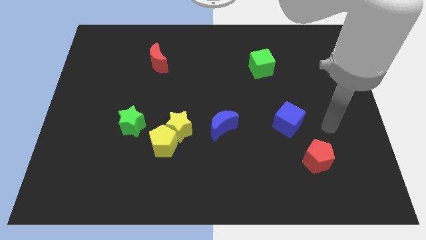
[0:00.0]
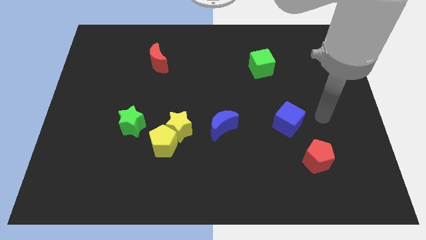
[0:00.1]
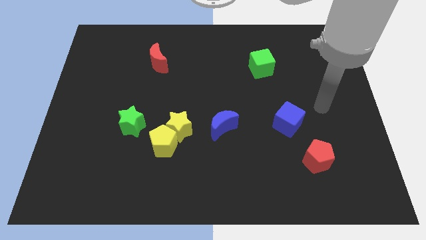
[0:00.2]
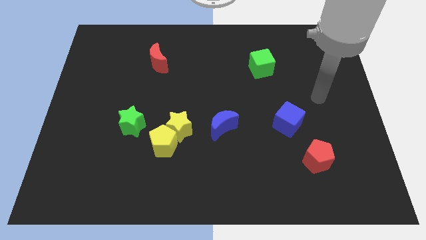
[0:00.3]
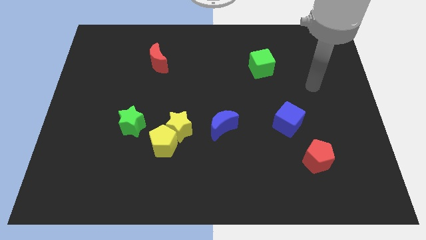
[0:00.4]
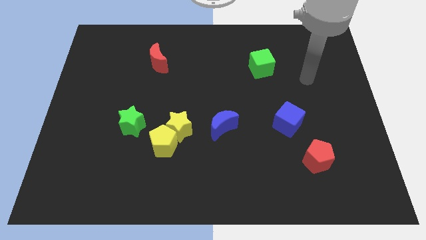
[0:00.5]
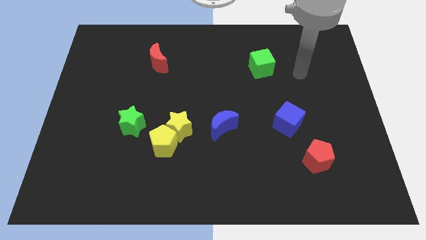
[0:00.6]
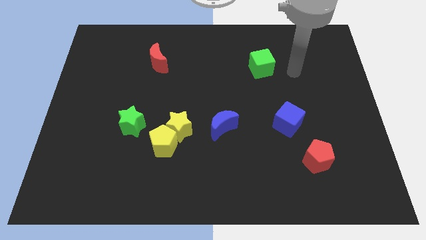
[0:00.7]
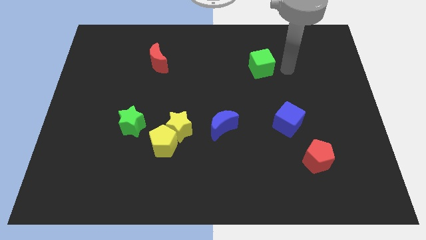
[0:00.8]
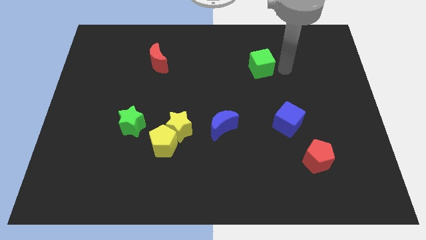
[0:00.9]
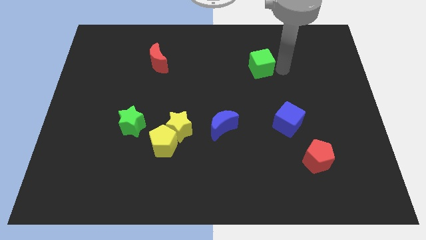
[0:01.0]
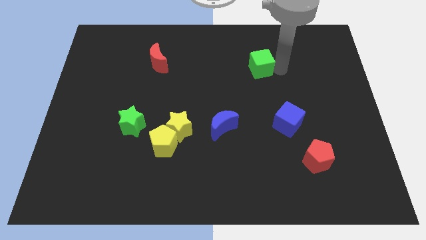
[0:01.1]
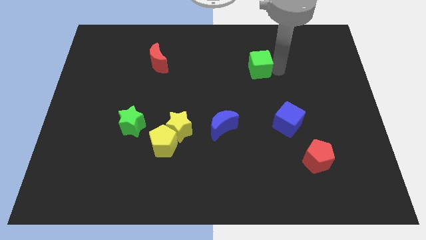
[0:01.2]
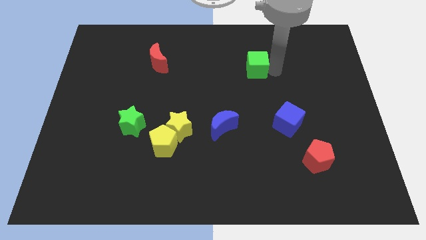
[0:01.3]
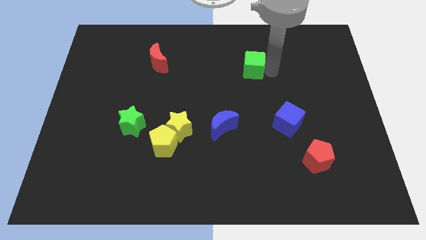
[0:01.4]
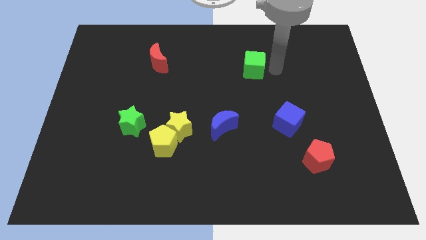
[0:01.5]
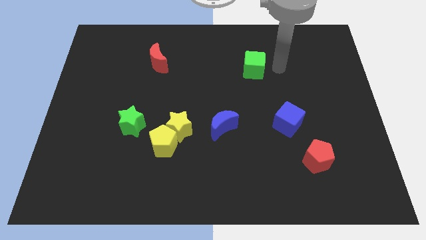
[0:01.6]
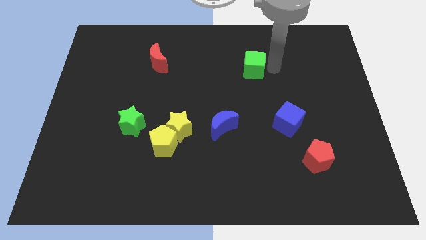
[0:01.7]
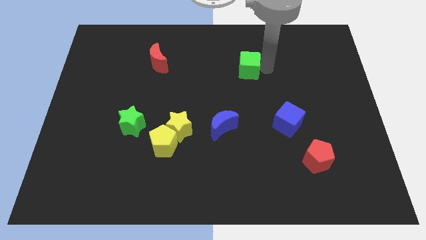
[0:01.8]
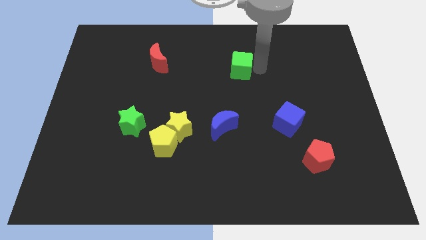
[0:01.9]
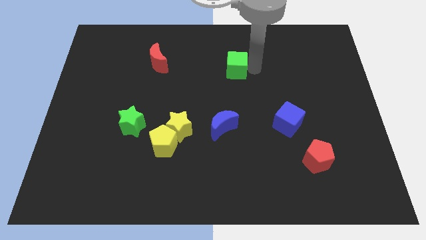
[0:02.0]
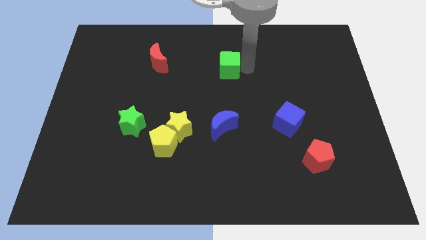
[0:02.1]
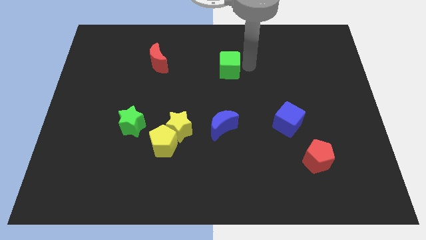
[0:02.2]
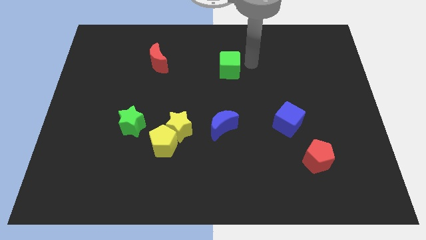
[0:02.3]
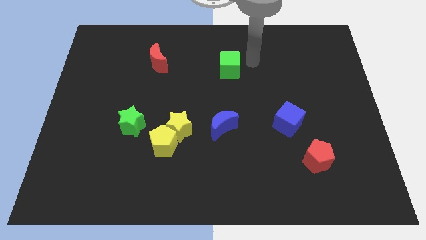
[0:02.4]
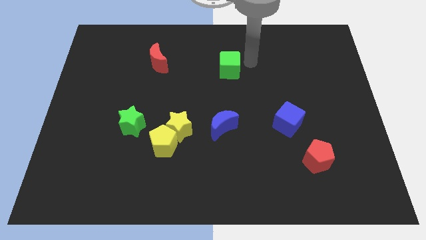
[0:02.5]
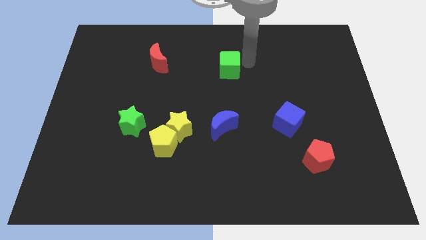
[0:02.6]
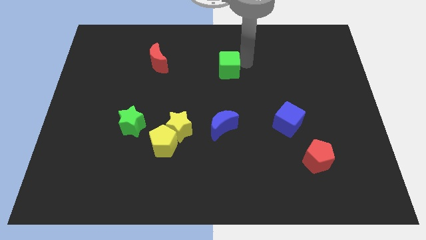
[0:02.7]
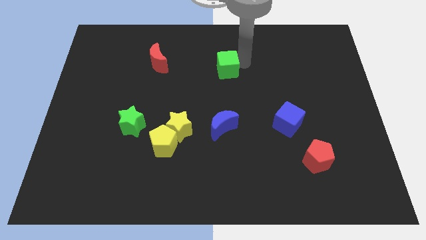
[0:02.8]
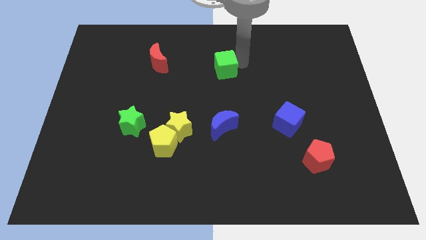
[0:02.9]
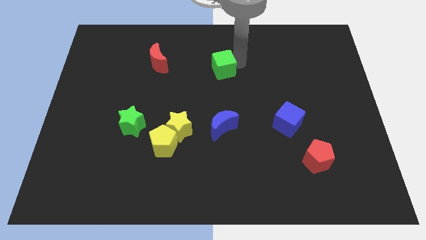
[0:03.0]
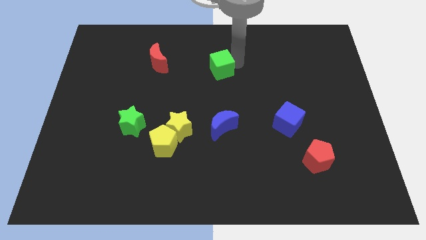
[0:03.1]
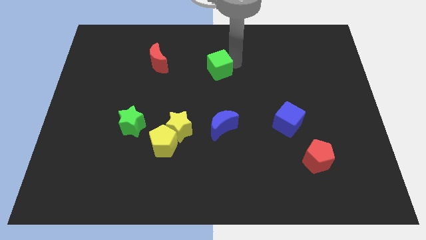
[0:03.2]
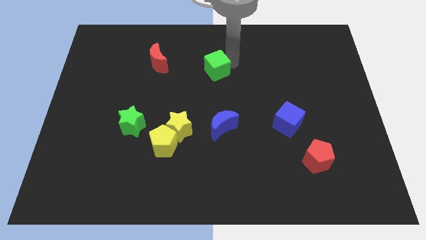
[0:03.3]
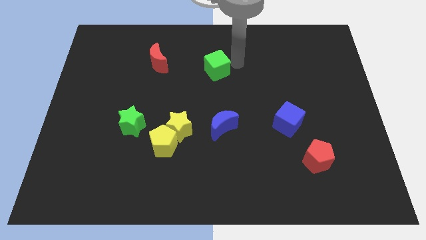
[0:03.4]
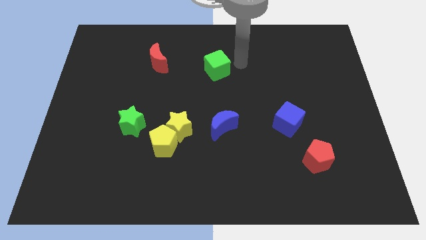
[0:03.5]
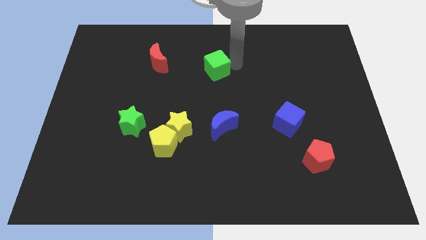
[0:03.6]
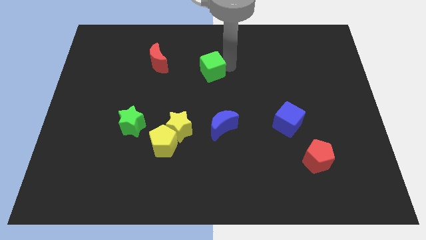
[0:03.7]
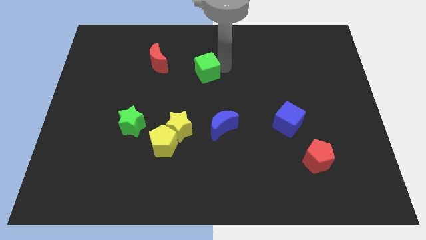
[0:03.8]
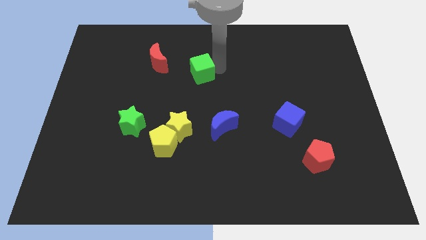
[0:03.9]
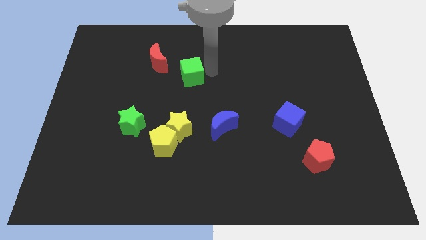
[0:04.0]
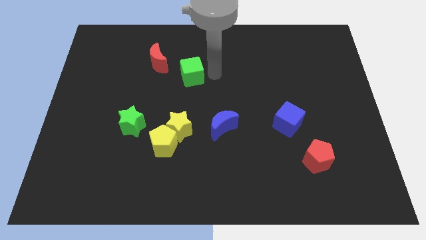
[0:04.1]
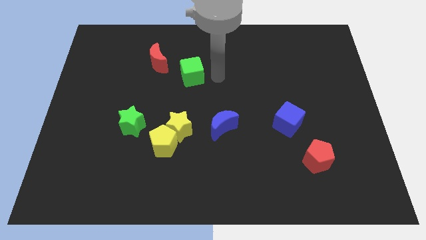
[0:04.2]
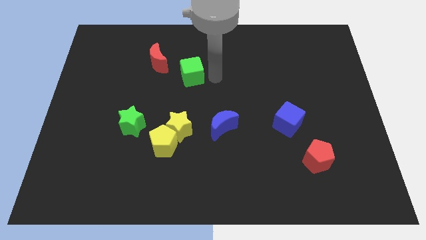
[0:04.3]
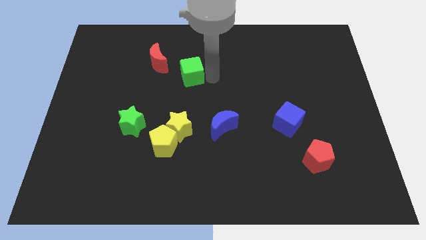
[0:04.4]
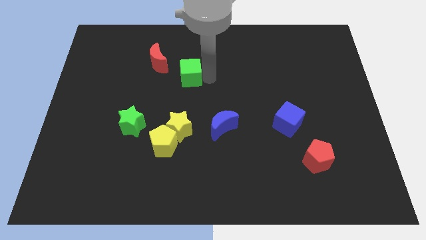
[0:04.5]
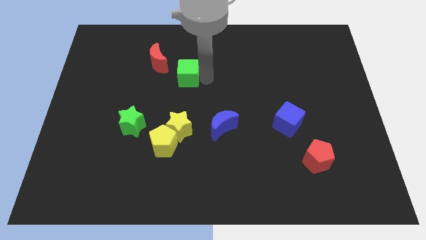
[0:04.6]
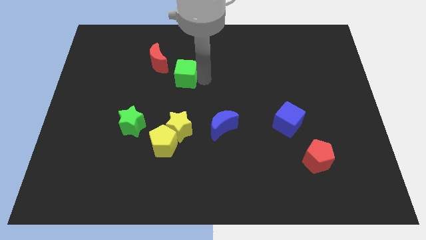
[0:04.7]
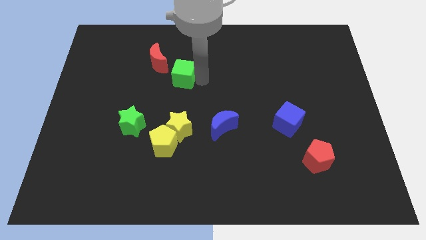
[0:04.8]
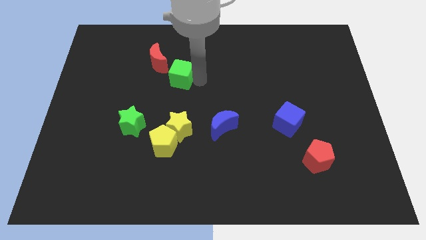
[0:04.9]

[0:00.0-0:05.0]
move the green cube left

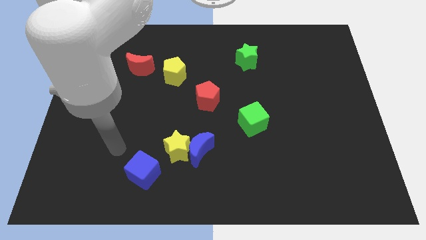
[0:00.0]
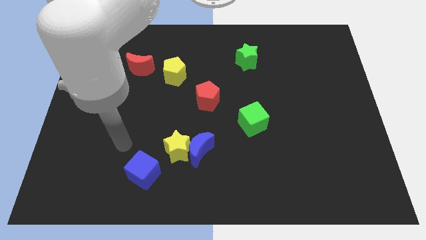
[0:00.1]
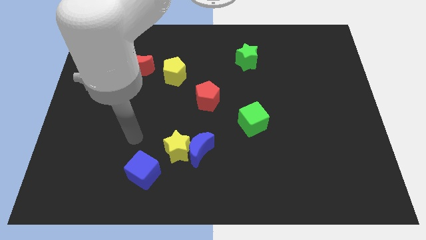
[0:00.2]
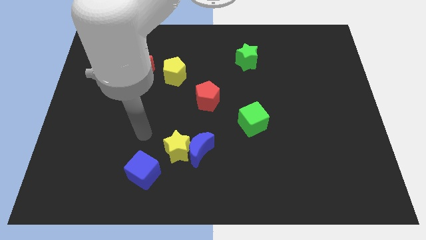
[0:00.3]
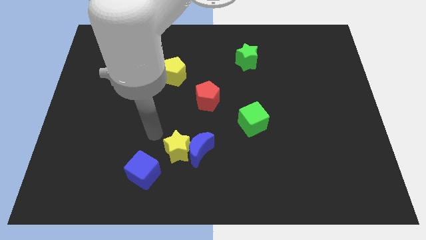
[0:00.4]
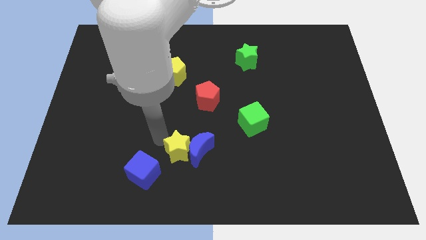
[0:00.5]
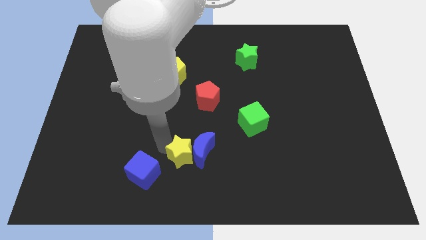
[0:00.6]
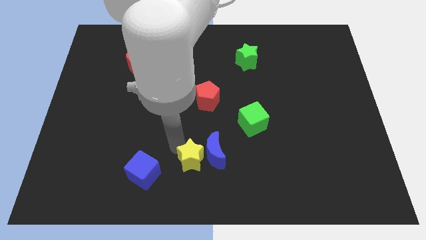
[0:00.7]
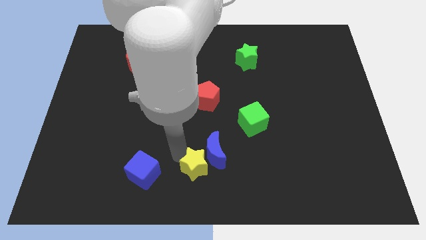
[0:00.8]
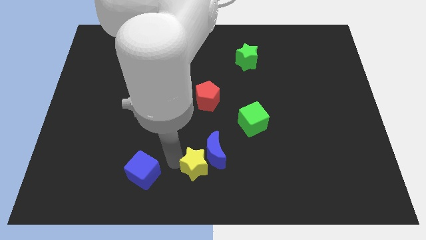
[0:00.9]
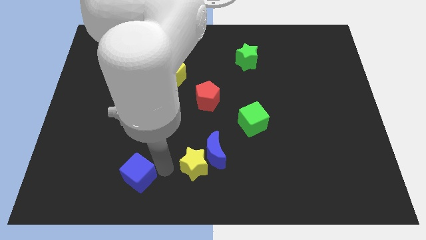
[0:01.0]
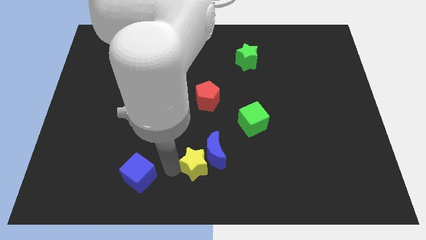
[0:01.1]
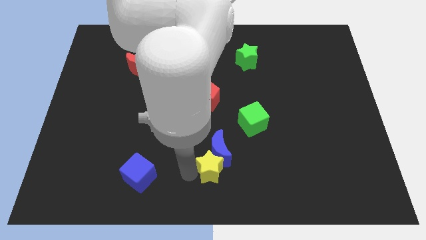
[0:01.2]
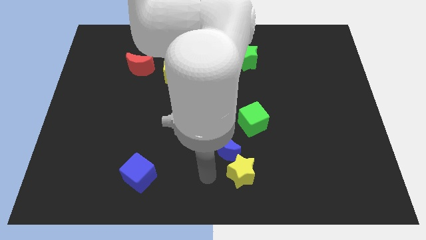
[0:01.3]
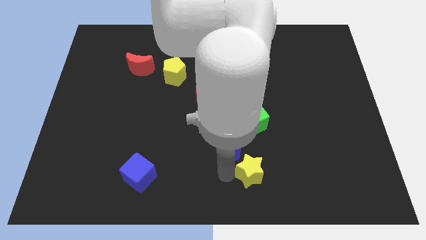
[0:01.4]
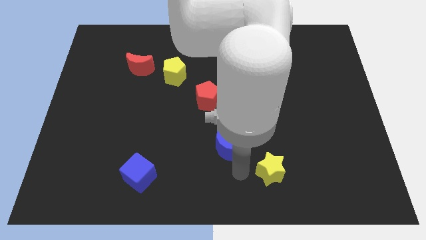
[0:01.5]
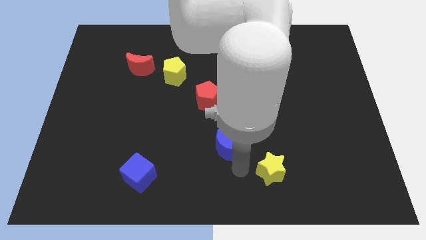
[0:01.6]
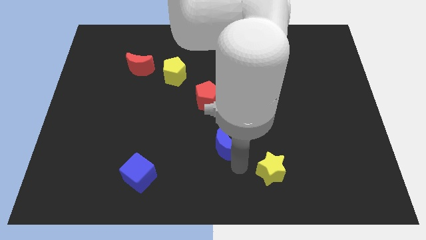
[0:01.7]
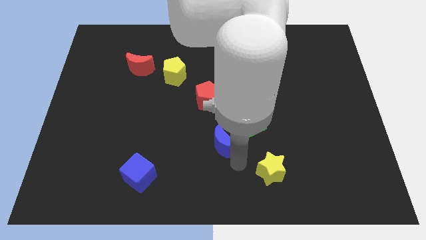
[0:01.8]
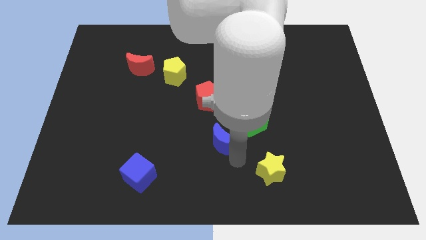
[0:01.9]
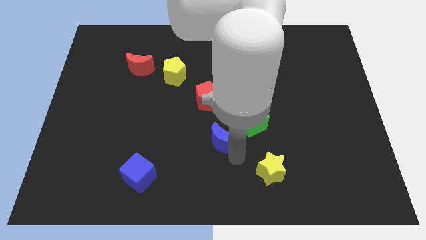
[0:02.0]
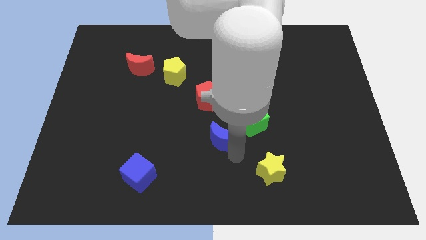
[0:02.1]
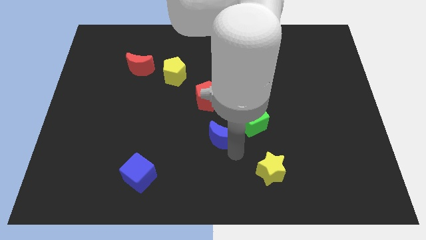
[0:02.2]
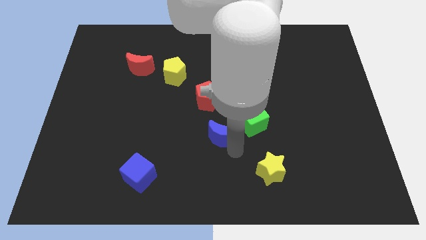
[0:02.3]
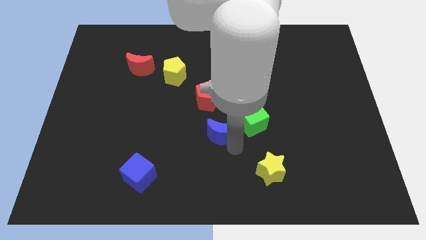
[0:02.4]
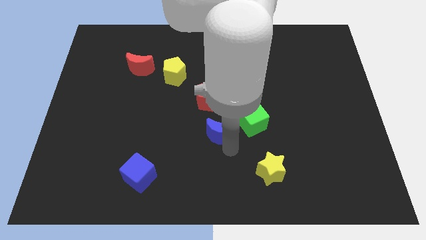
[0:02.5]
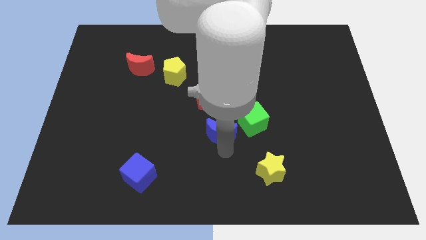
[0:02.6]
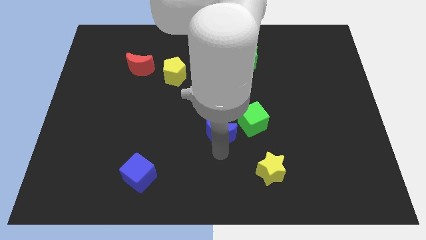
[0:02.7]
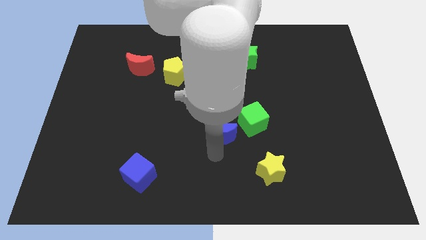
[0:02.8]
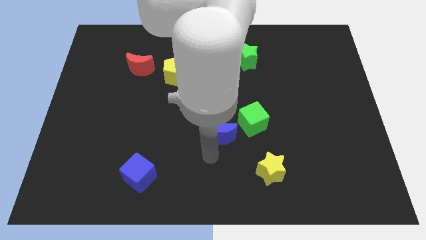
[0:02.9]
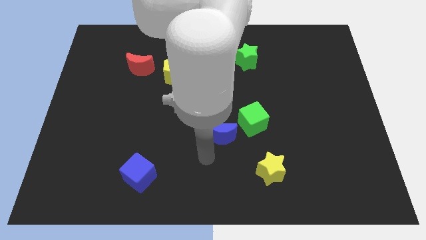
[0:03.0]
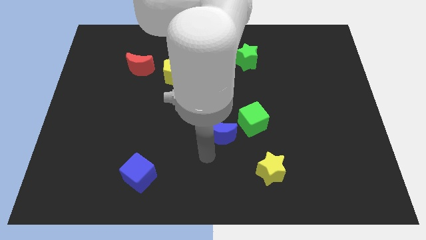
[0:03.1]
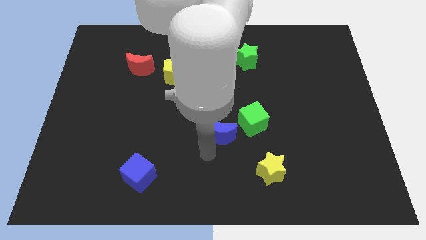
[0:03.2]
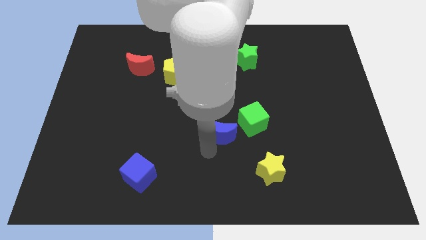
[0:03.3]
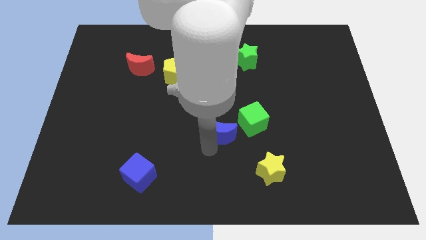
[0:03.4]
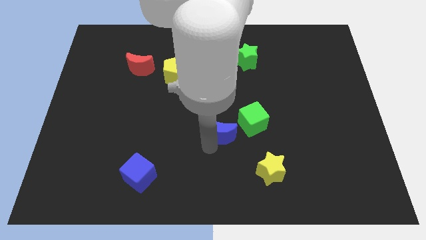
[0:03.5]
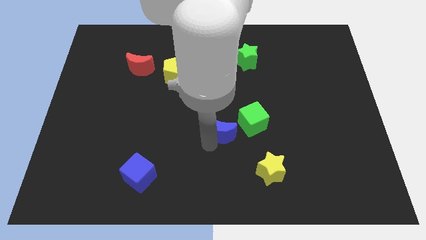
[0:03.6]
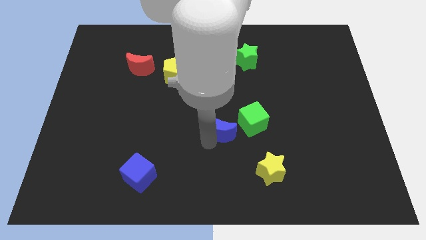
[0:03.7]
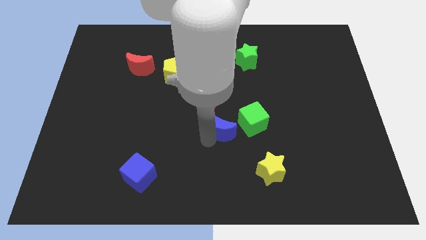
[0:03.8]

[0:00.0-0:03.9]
slightly slide the blue moon upwards and right
